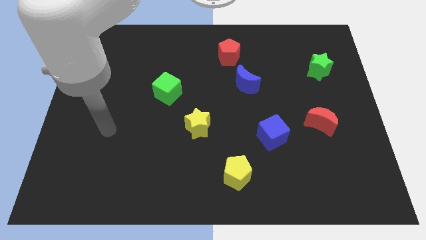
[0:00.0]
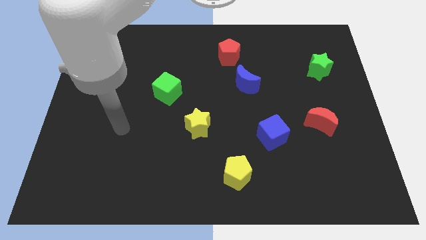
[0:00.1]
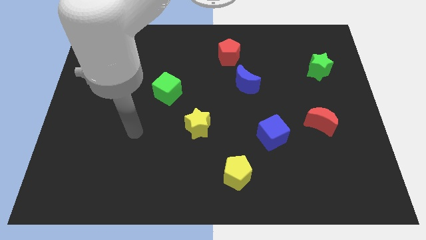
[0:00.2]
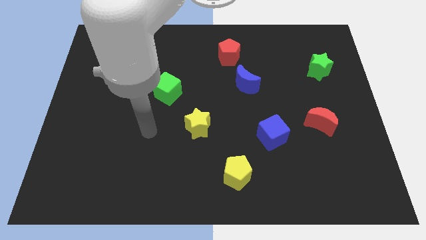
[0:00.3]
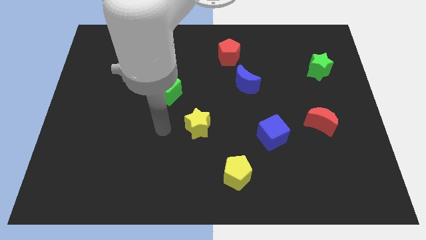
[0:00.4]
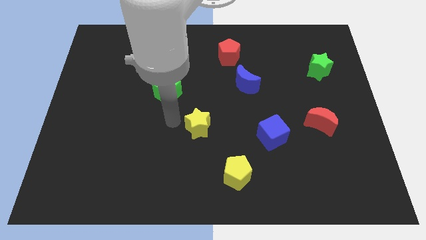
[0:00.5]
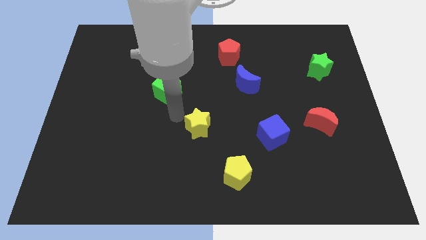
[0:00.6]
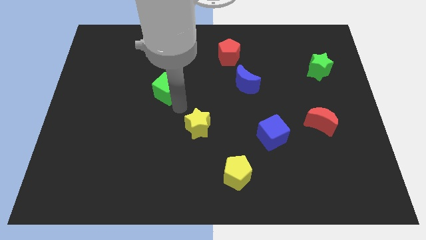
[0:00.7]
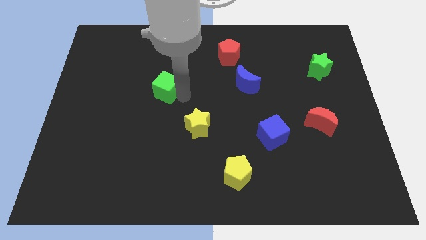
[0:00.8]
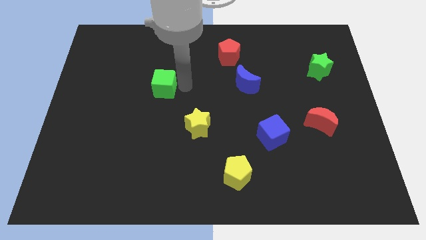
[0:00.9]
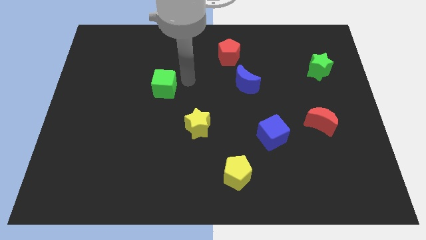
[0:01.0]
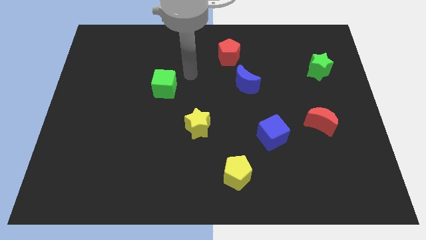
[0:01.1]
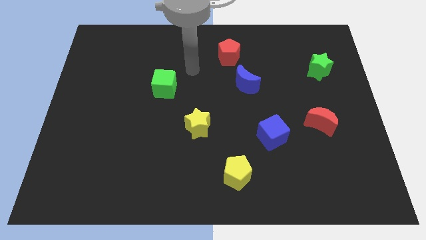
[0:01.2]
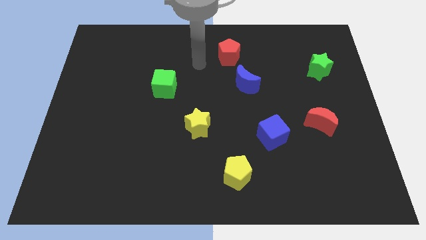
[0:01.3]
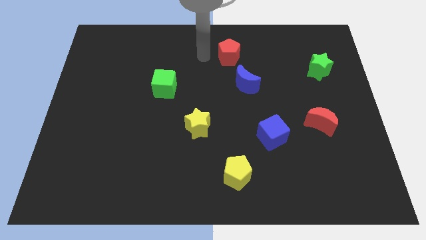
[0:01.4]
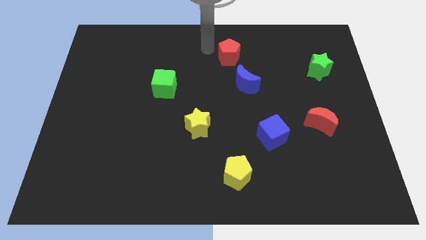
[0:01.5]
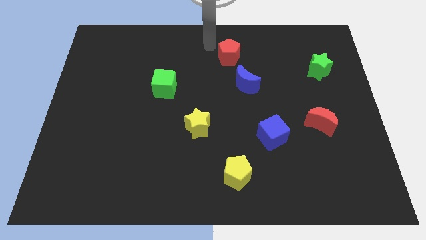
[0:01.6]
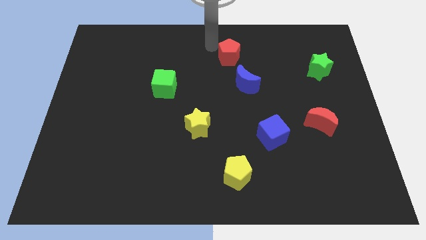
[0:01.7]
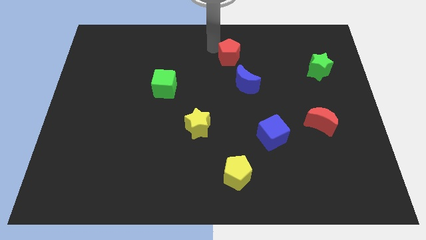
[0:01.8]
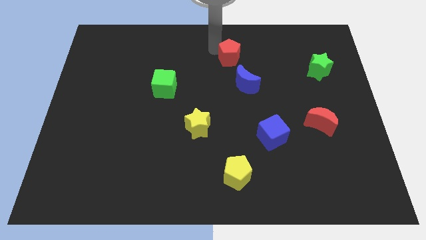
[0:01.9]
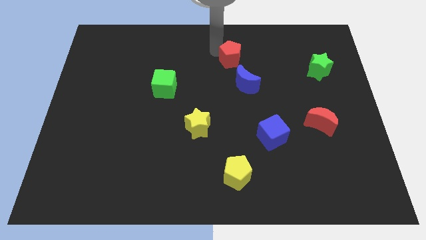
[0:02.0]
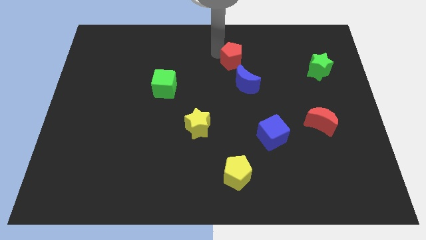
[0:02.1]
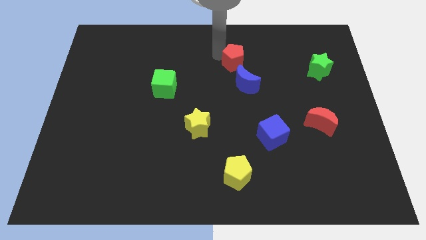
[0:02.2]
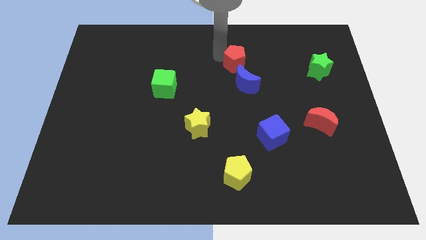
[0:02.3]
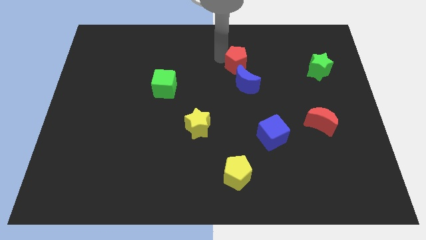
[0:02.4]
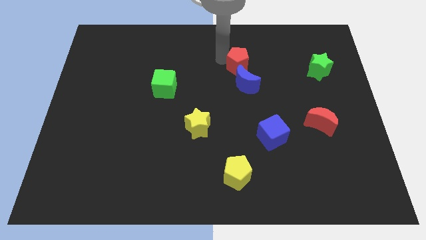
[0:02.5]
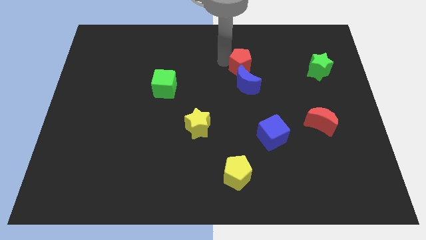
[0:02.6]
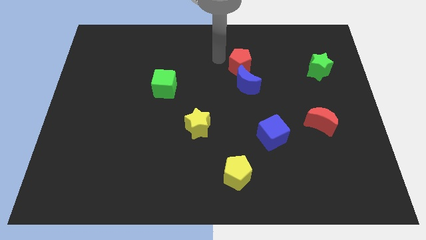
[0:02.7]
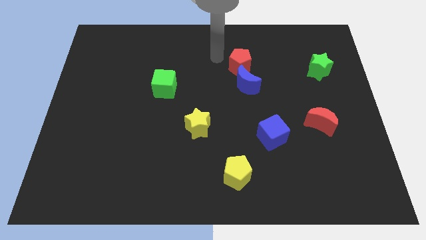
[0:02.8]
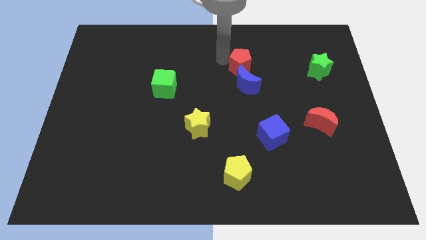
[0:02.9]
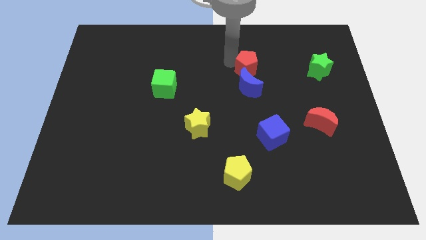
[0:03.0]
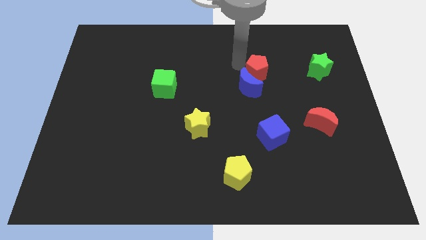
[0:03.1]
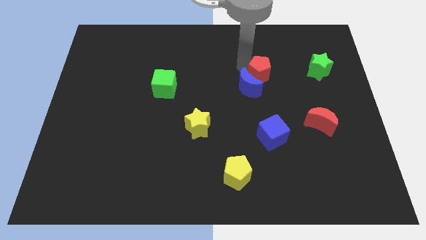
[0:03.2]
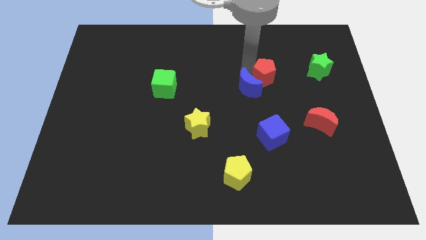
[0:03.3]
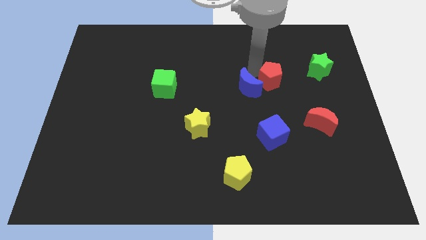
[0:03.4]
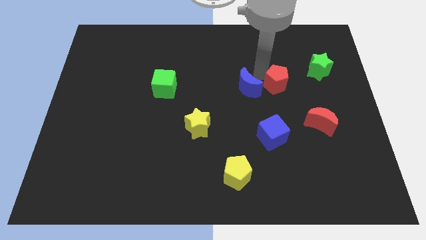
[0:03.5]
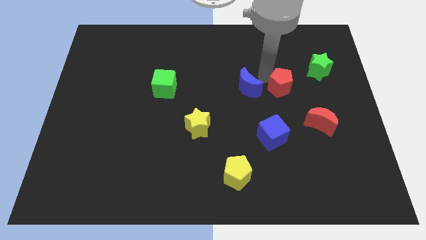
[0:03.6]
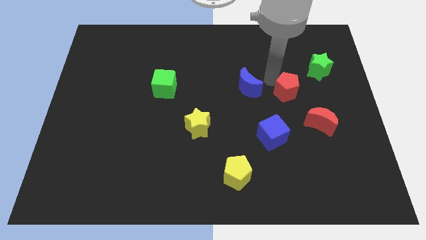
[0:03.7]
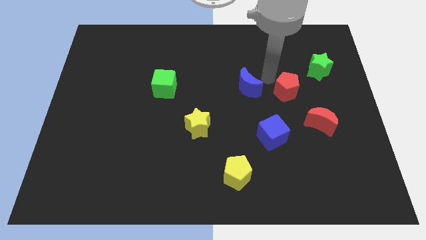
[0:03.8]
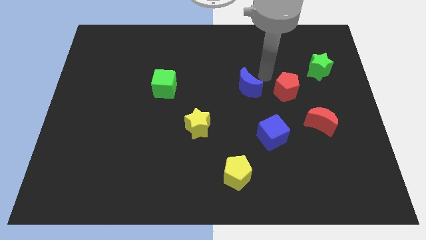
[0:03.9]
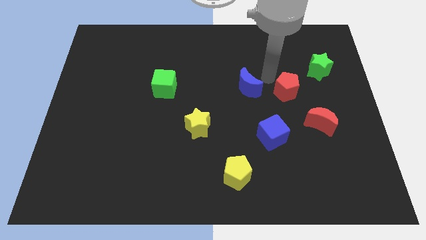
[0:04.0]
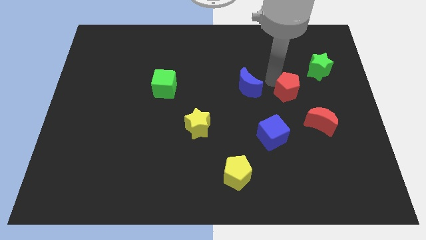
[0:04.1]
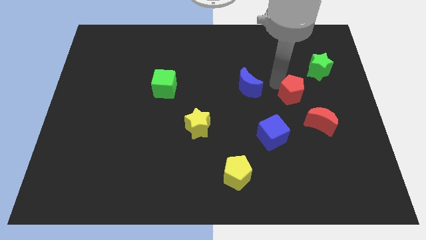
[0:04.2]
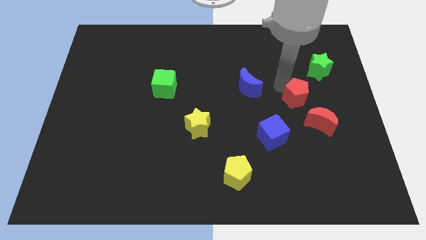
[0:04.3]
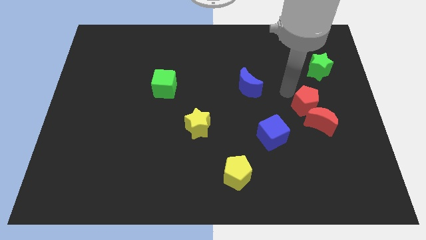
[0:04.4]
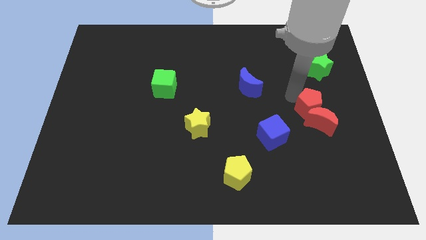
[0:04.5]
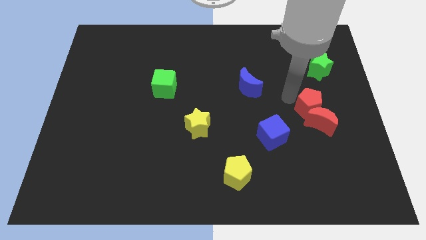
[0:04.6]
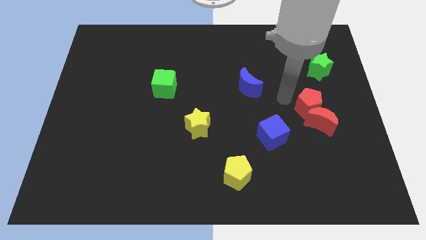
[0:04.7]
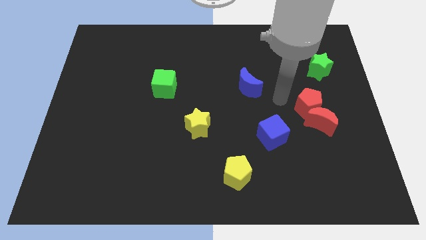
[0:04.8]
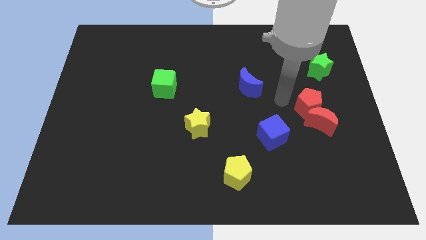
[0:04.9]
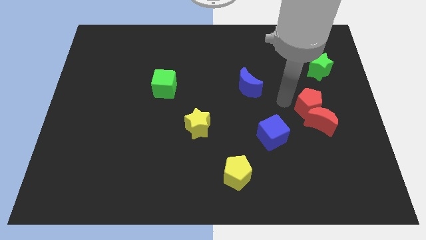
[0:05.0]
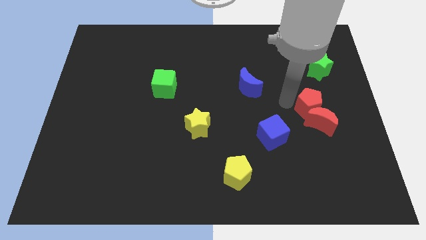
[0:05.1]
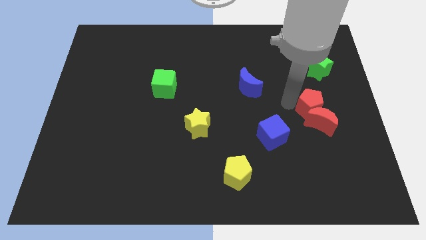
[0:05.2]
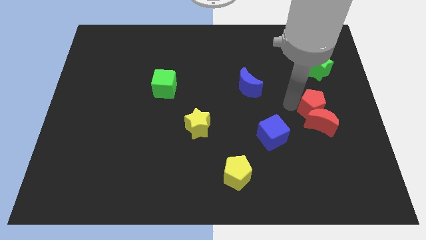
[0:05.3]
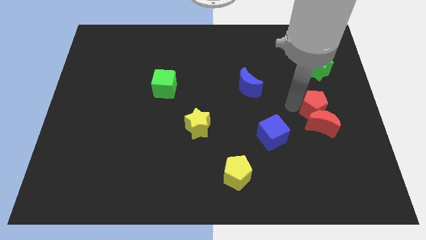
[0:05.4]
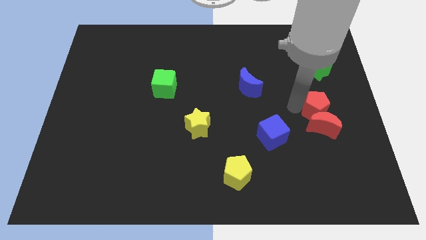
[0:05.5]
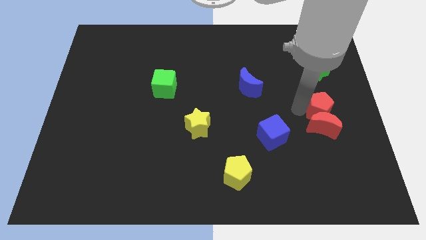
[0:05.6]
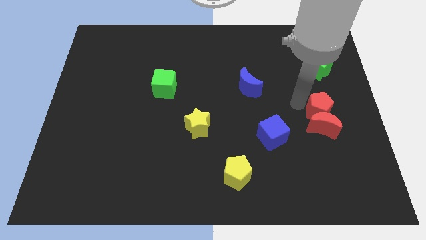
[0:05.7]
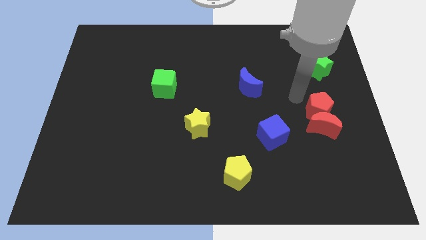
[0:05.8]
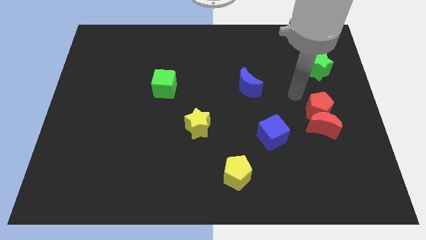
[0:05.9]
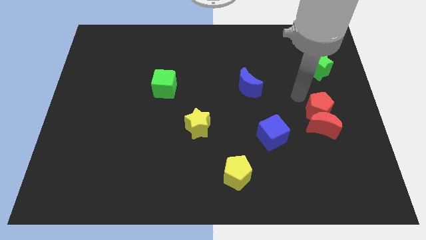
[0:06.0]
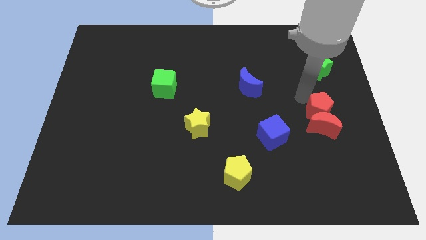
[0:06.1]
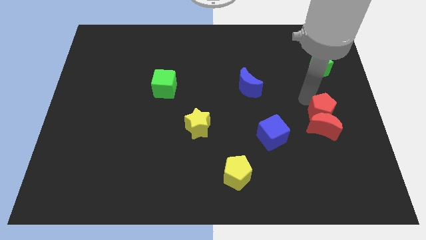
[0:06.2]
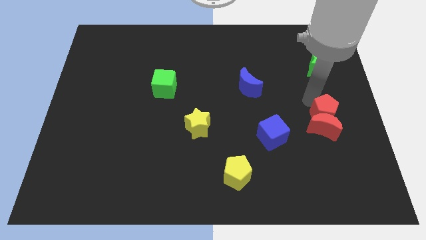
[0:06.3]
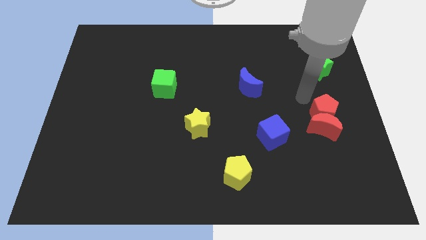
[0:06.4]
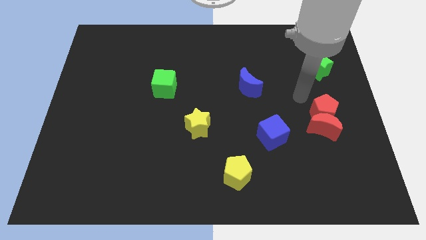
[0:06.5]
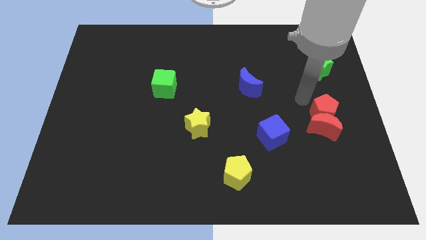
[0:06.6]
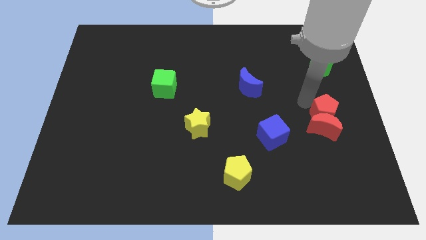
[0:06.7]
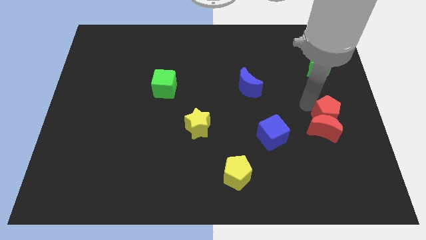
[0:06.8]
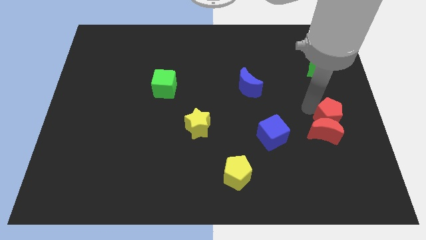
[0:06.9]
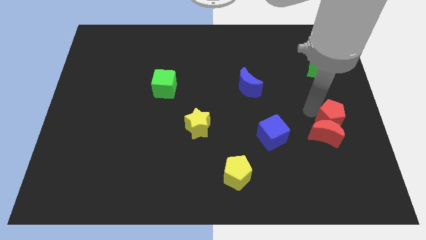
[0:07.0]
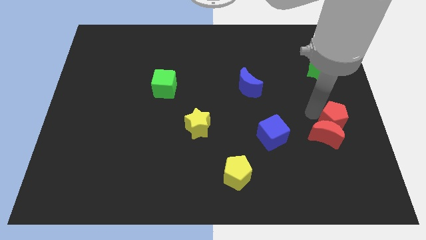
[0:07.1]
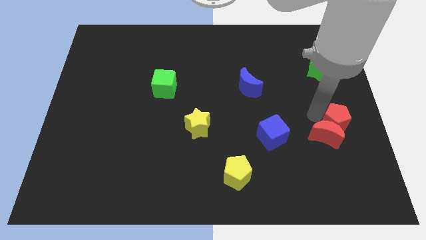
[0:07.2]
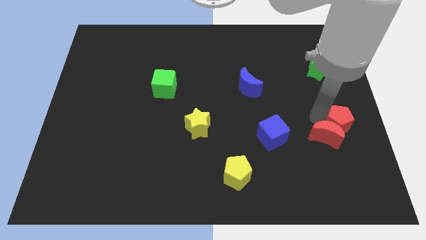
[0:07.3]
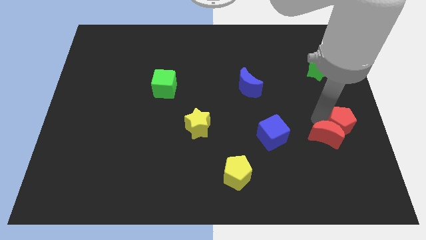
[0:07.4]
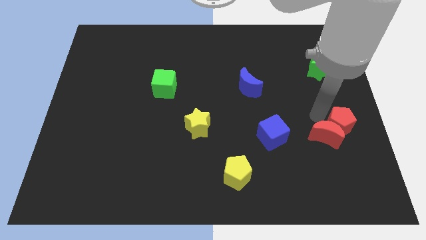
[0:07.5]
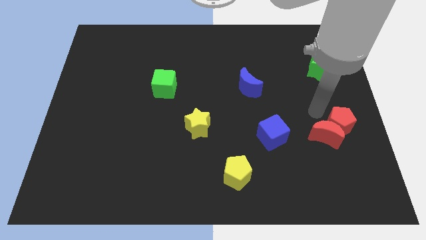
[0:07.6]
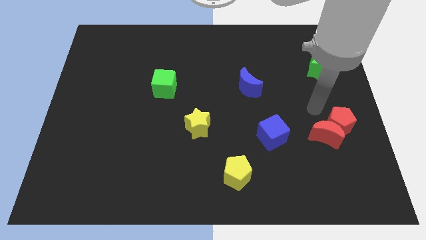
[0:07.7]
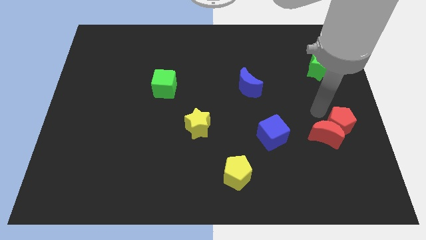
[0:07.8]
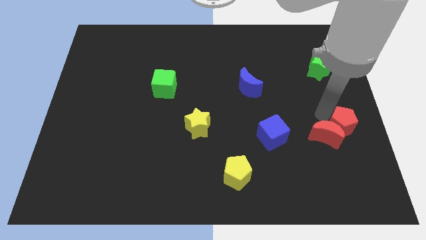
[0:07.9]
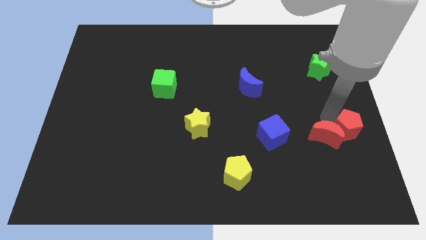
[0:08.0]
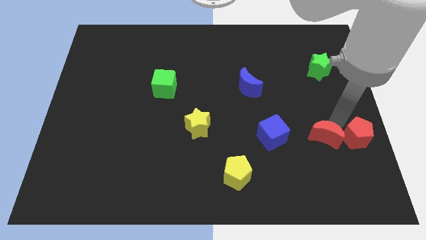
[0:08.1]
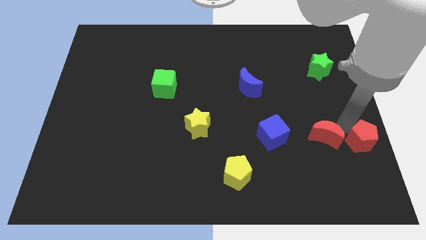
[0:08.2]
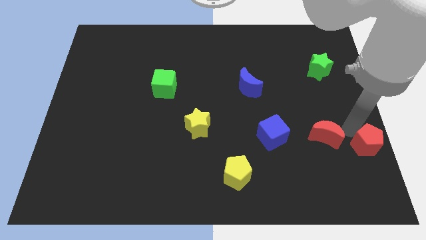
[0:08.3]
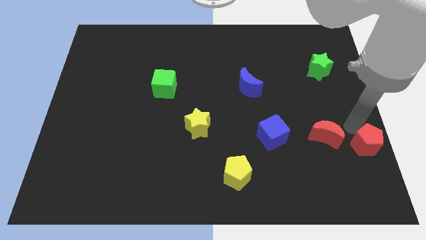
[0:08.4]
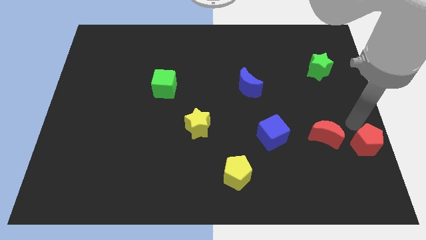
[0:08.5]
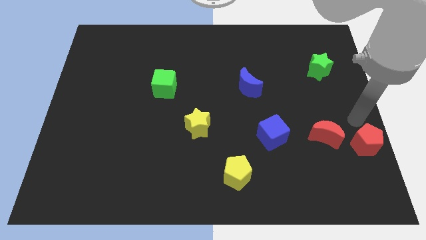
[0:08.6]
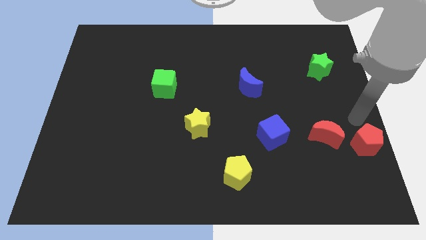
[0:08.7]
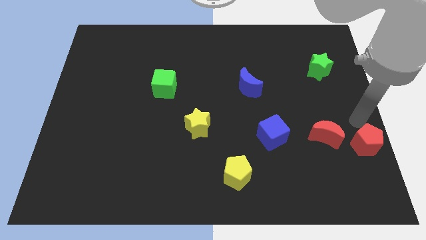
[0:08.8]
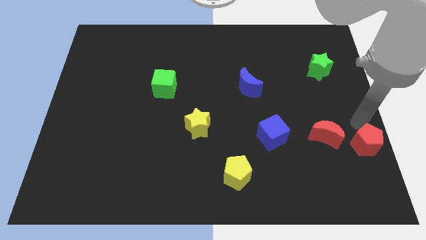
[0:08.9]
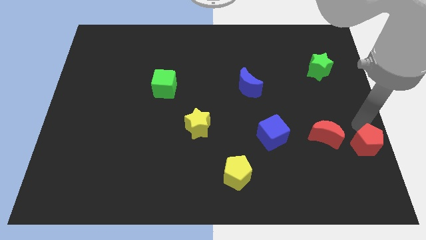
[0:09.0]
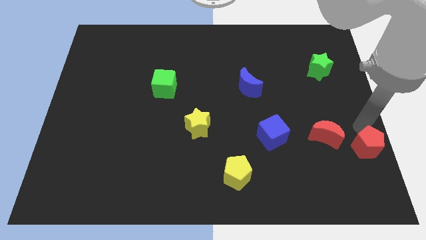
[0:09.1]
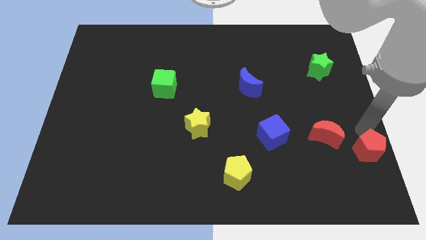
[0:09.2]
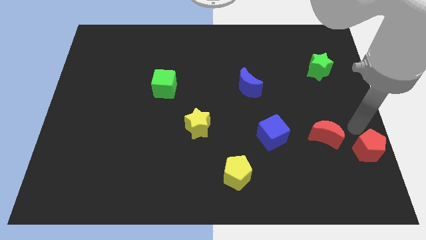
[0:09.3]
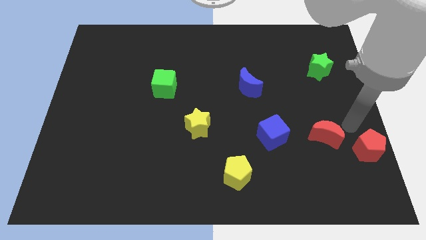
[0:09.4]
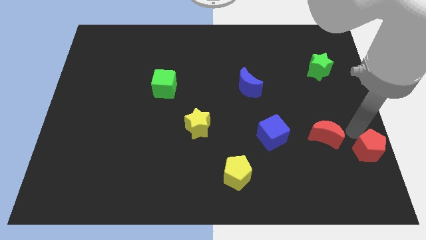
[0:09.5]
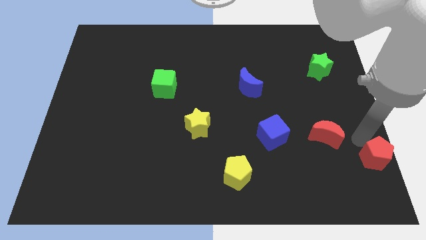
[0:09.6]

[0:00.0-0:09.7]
slide the red pentagon to the bottom right corner
